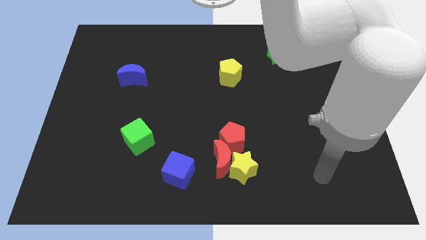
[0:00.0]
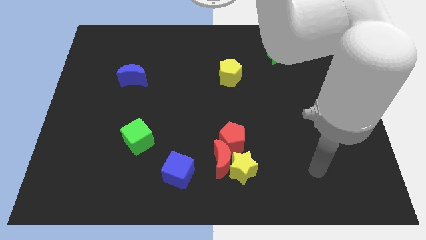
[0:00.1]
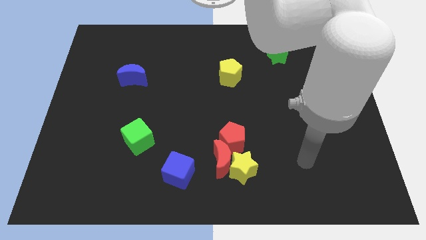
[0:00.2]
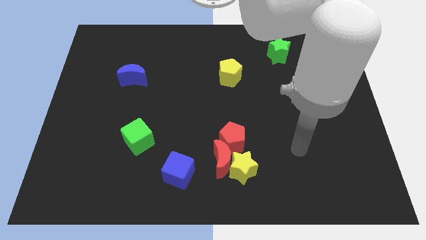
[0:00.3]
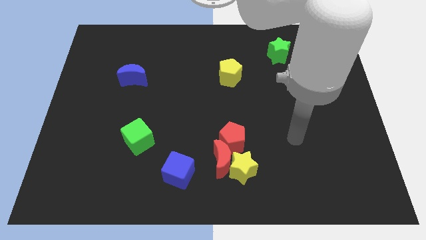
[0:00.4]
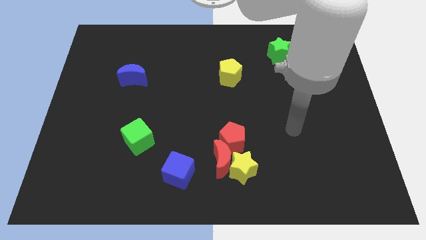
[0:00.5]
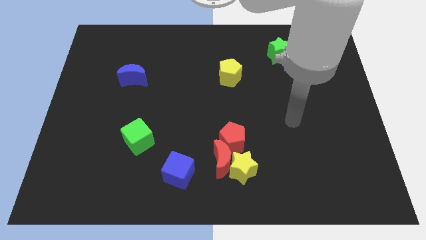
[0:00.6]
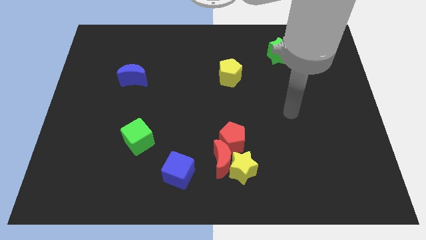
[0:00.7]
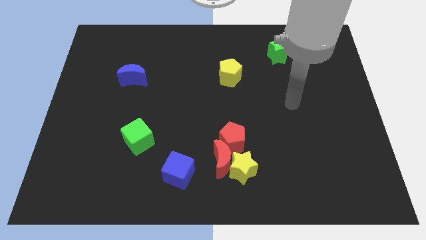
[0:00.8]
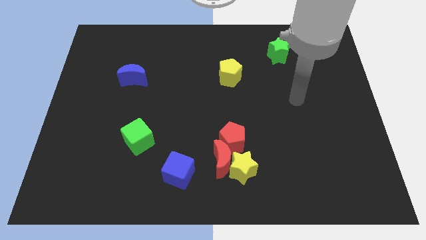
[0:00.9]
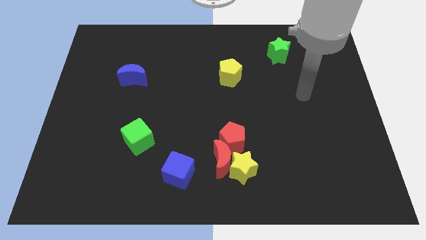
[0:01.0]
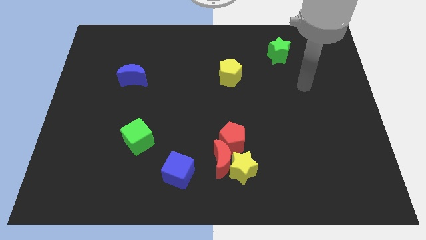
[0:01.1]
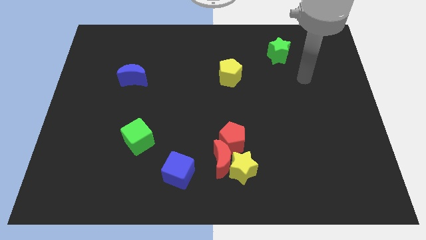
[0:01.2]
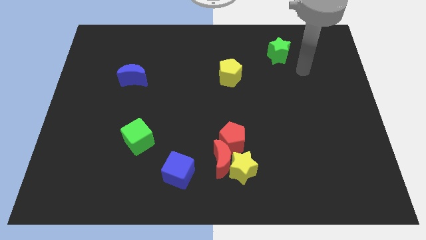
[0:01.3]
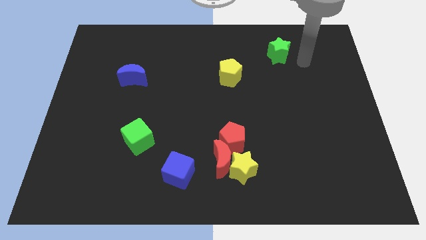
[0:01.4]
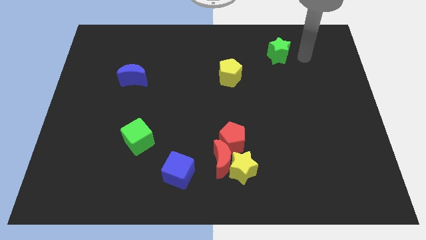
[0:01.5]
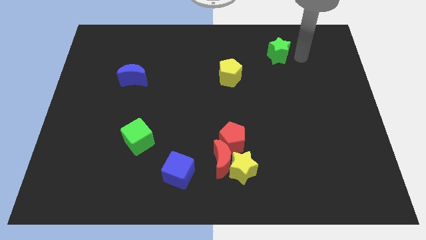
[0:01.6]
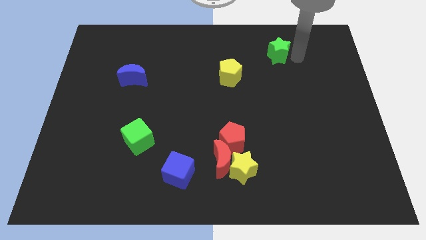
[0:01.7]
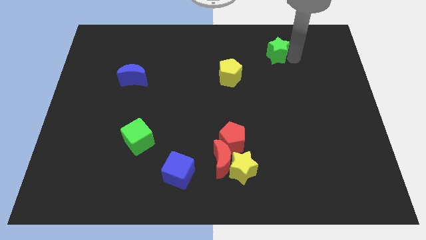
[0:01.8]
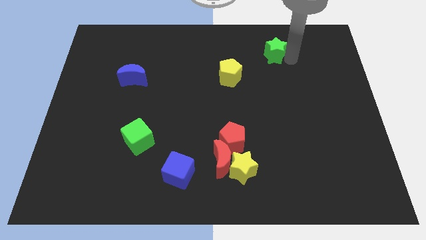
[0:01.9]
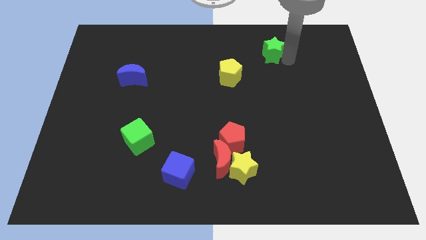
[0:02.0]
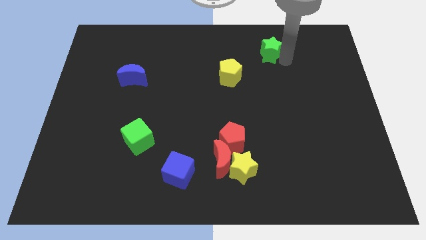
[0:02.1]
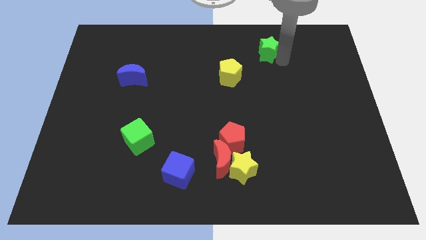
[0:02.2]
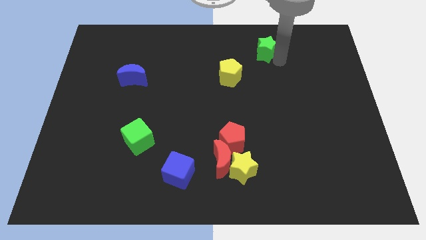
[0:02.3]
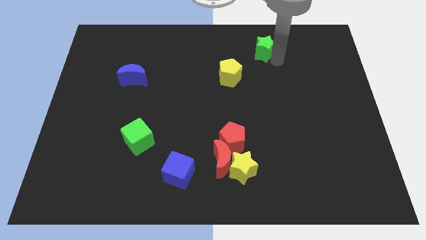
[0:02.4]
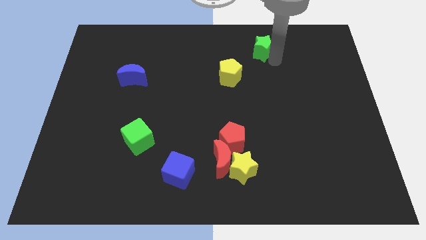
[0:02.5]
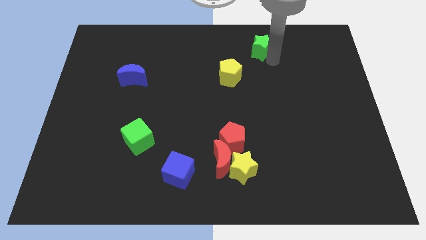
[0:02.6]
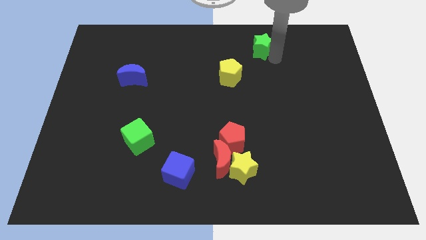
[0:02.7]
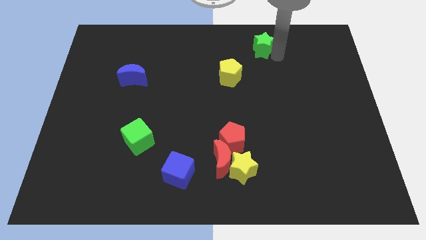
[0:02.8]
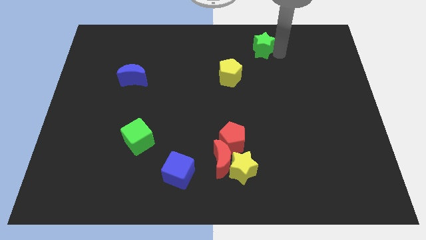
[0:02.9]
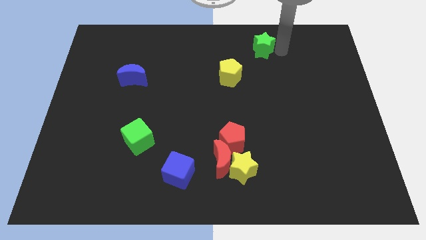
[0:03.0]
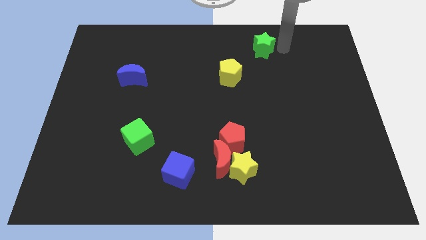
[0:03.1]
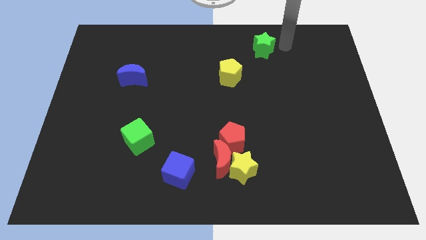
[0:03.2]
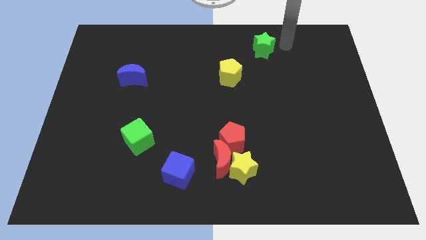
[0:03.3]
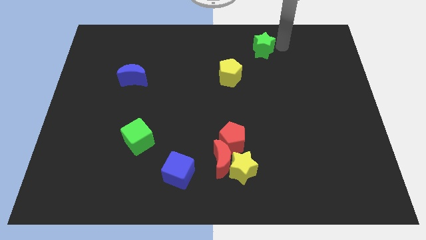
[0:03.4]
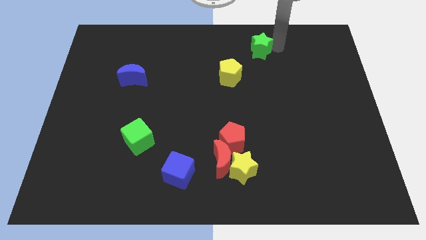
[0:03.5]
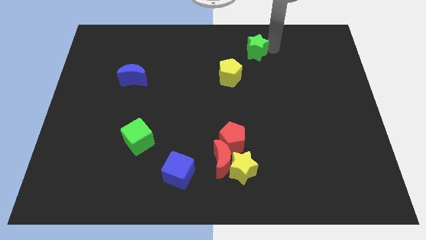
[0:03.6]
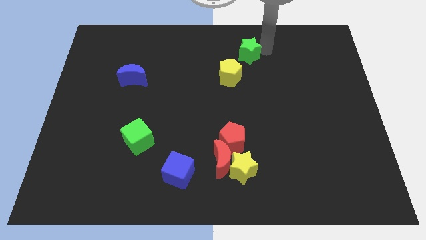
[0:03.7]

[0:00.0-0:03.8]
move the green star to the left a little bit

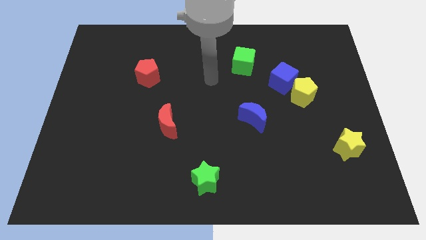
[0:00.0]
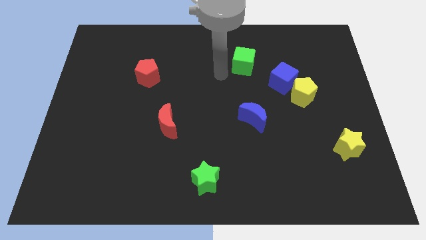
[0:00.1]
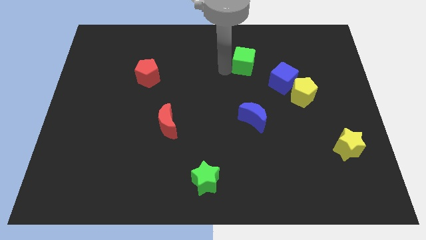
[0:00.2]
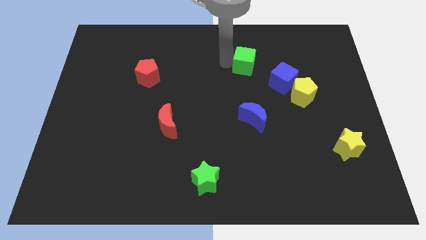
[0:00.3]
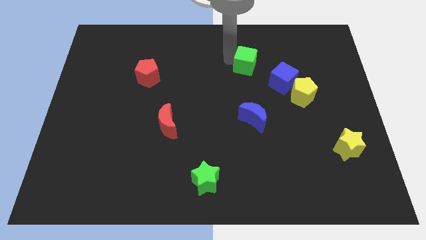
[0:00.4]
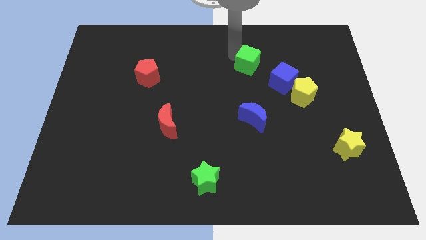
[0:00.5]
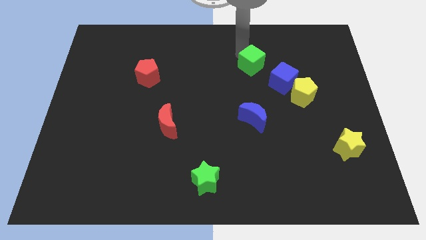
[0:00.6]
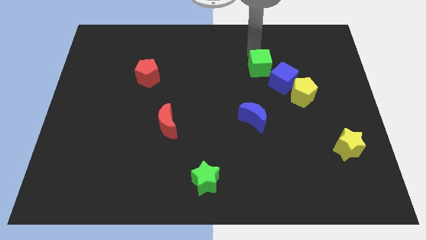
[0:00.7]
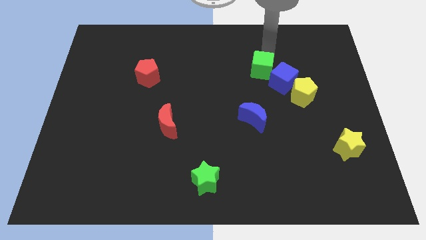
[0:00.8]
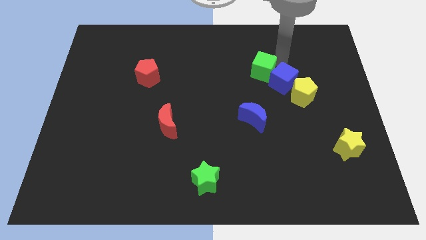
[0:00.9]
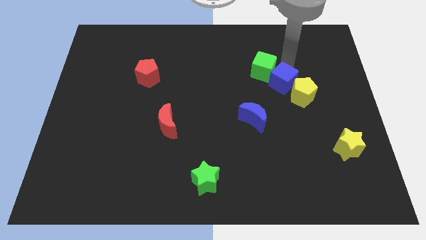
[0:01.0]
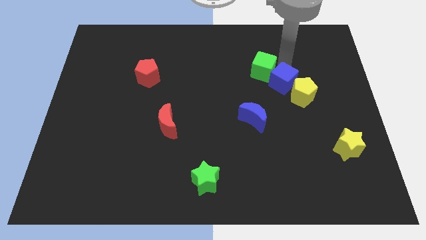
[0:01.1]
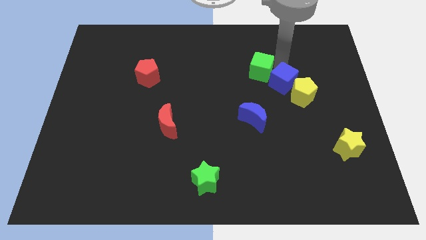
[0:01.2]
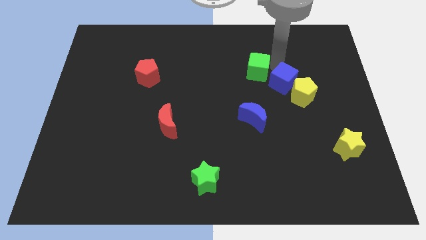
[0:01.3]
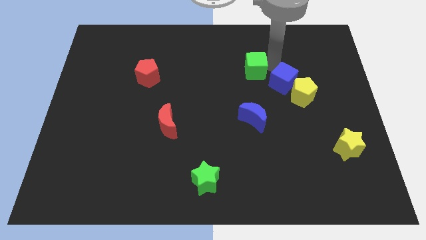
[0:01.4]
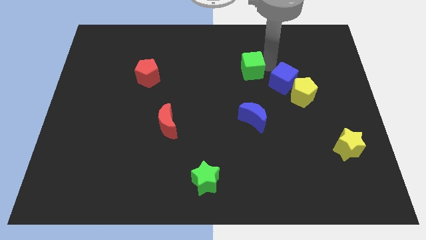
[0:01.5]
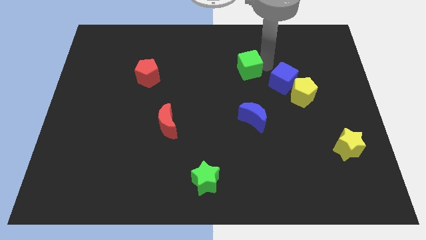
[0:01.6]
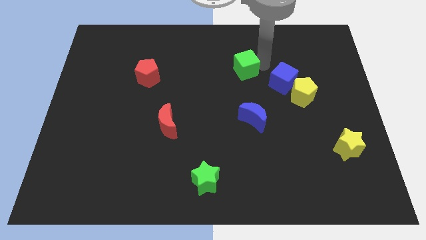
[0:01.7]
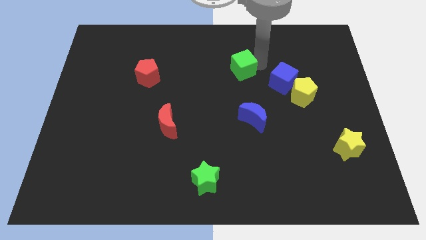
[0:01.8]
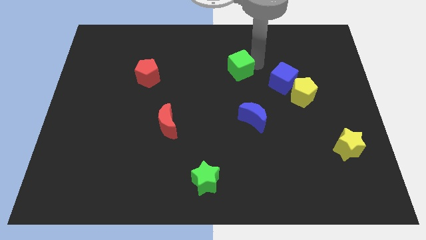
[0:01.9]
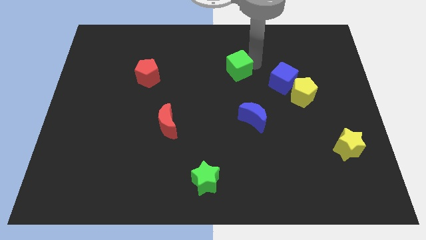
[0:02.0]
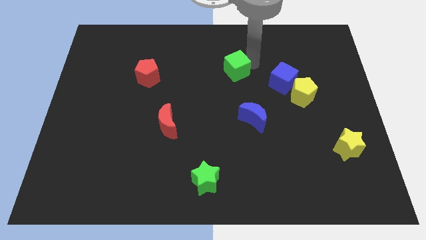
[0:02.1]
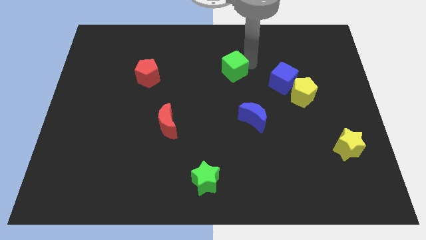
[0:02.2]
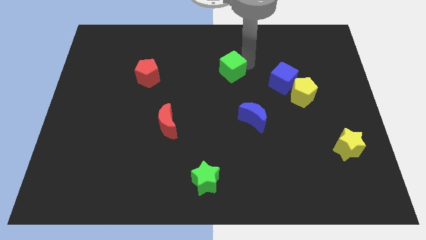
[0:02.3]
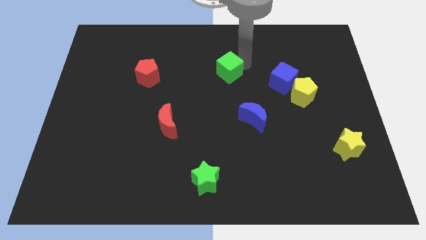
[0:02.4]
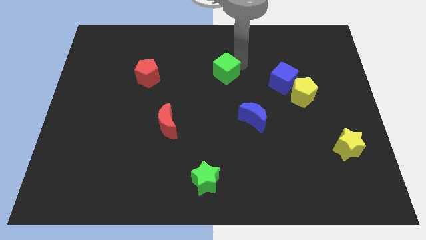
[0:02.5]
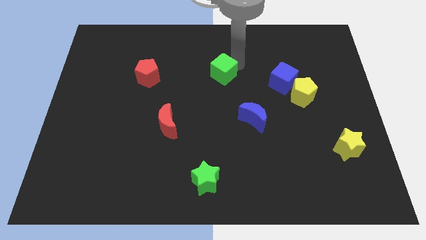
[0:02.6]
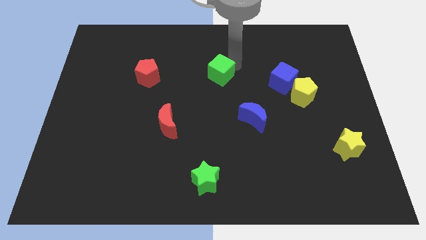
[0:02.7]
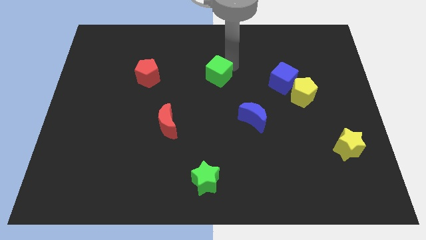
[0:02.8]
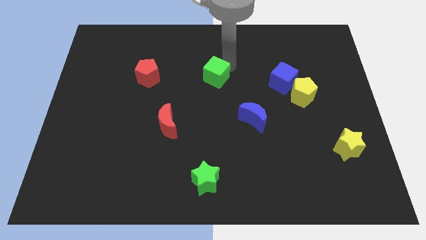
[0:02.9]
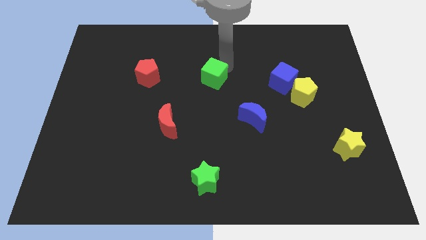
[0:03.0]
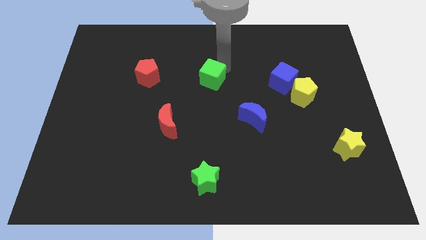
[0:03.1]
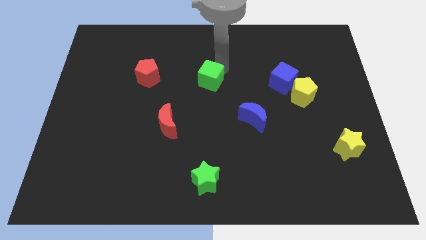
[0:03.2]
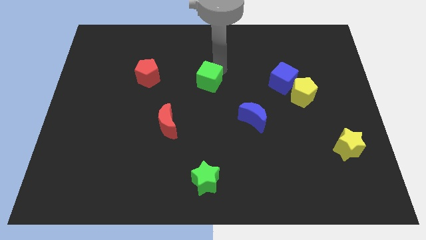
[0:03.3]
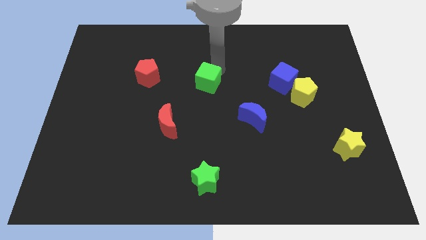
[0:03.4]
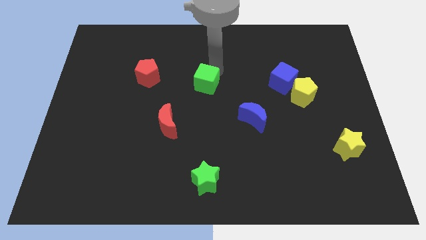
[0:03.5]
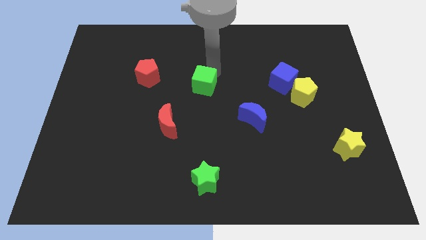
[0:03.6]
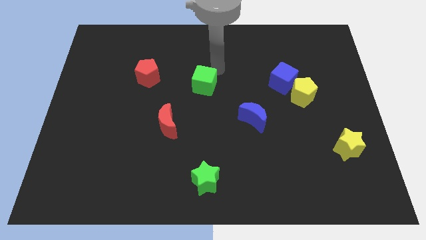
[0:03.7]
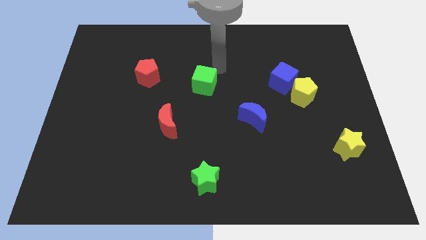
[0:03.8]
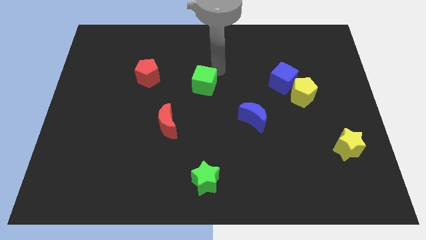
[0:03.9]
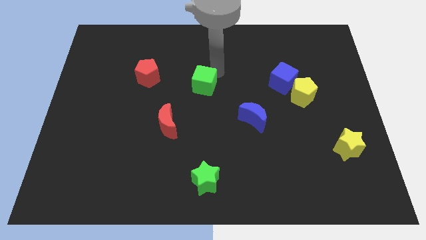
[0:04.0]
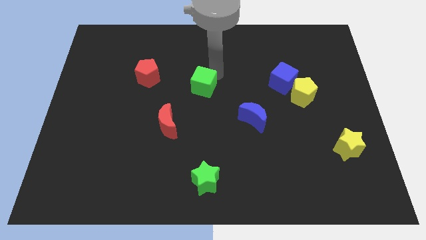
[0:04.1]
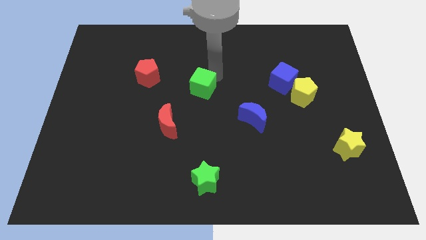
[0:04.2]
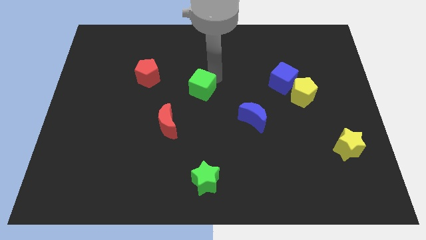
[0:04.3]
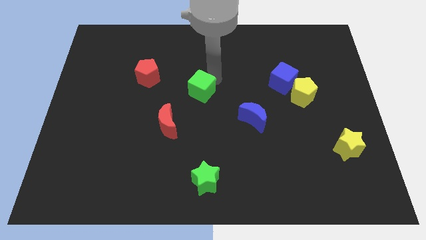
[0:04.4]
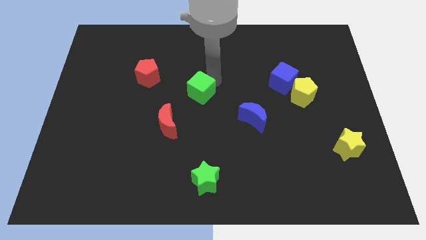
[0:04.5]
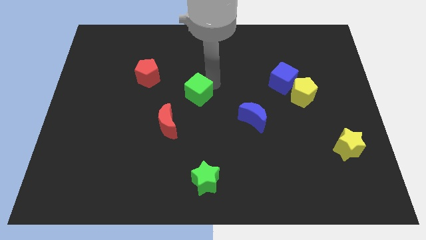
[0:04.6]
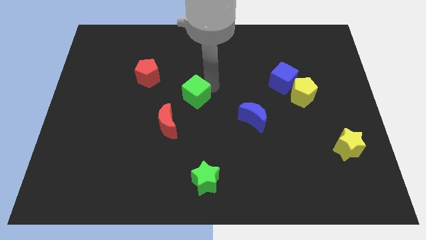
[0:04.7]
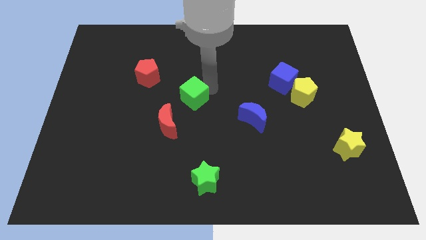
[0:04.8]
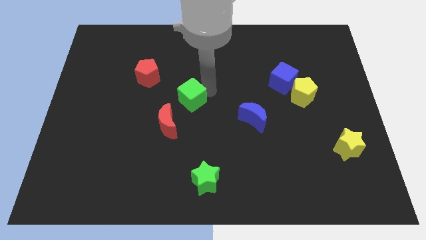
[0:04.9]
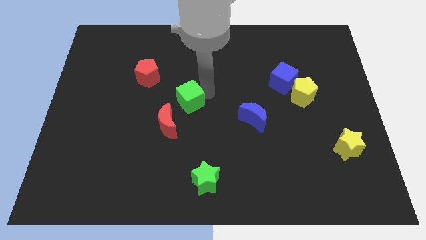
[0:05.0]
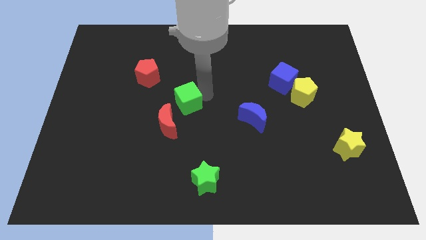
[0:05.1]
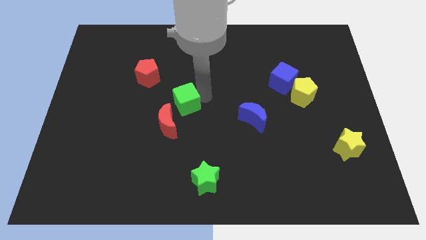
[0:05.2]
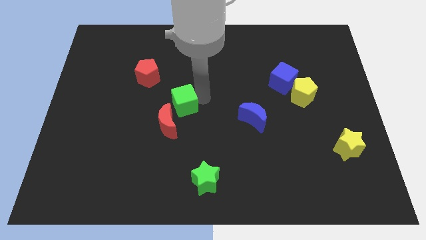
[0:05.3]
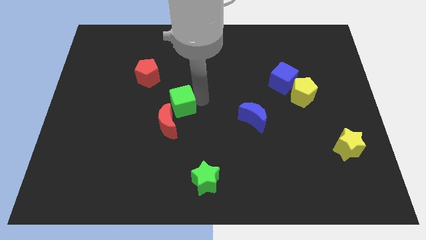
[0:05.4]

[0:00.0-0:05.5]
push the green cube down and to the left diagonally
